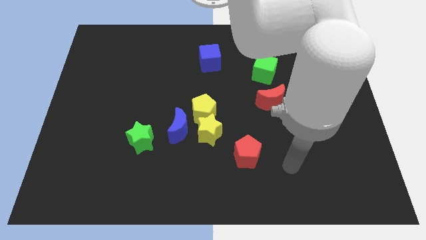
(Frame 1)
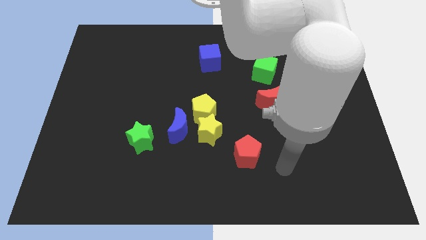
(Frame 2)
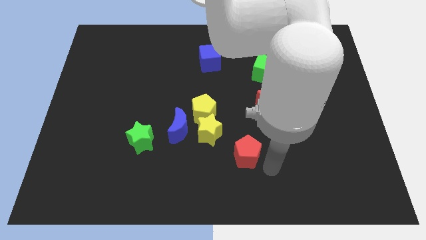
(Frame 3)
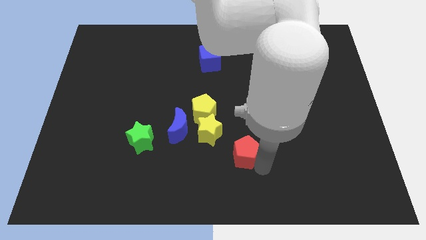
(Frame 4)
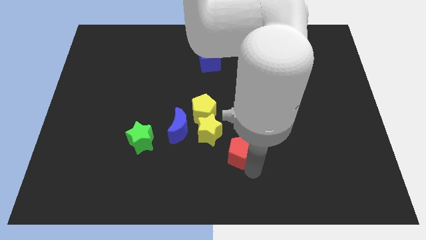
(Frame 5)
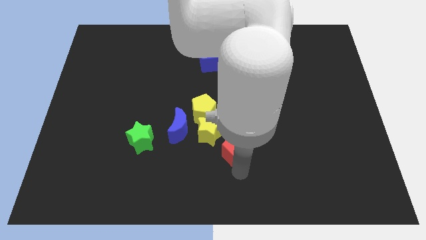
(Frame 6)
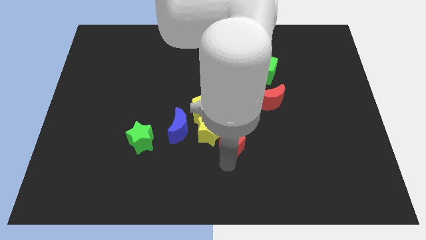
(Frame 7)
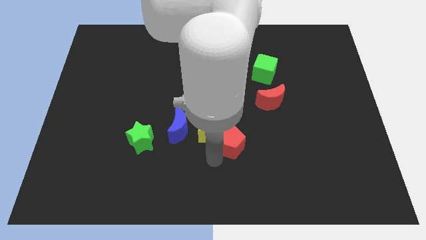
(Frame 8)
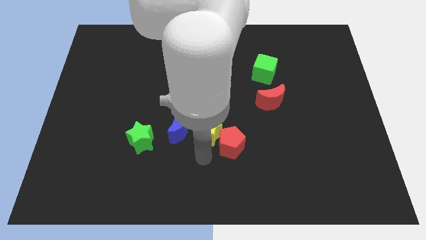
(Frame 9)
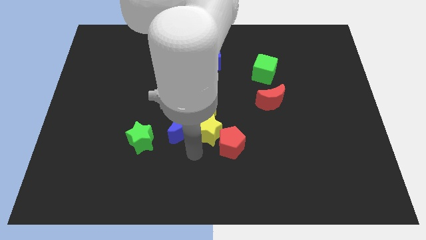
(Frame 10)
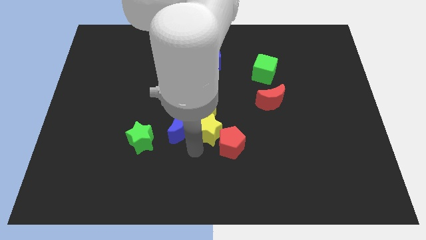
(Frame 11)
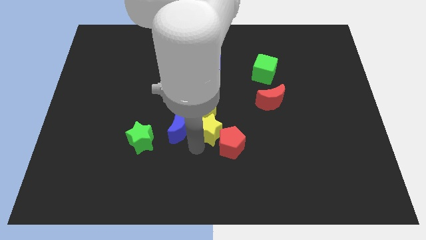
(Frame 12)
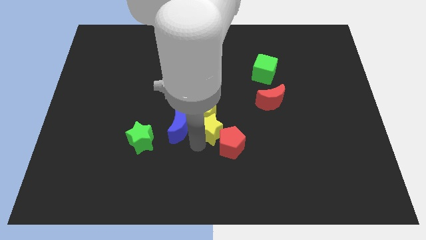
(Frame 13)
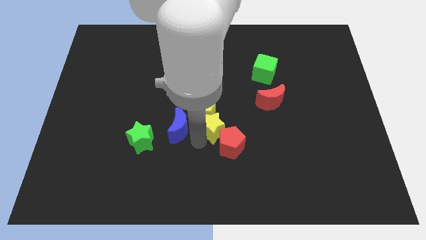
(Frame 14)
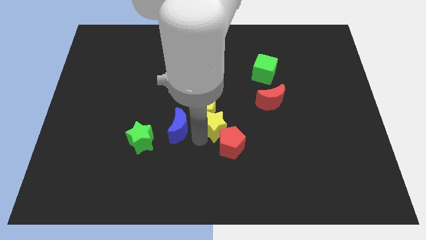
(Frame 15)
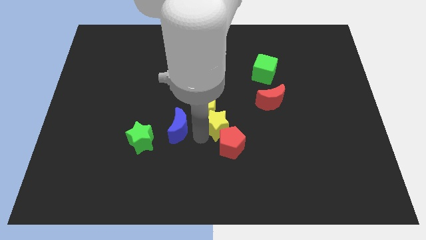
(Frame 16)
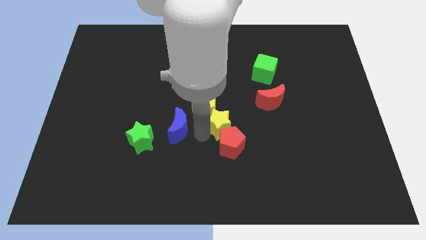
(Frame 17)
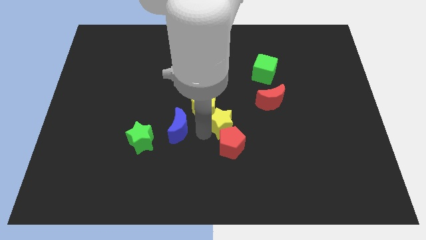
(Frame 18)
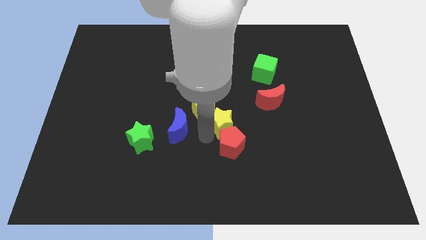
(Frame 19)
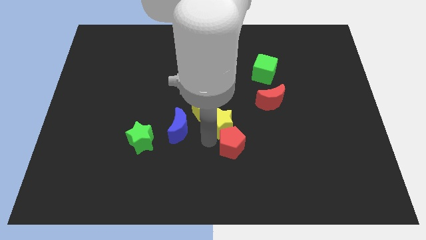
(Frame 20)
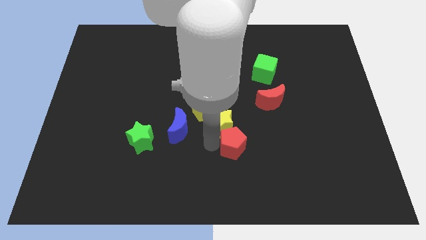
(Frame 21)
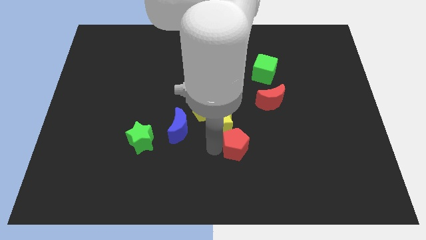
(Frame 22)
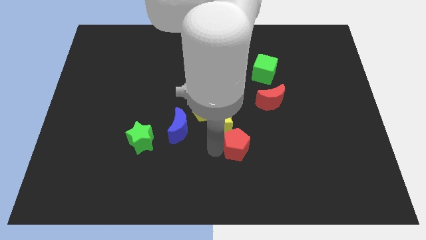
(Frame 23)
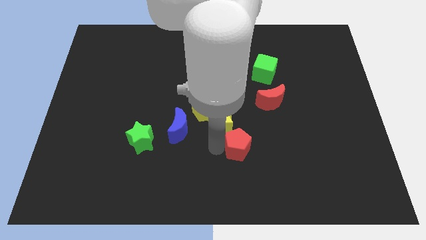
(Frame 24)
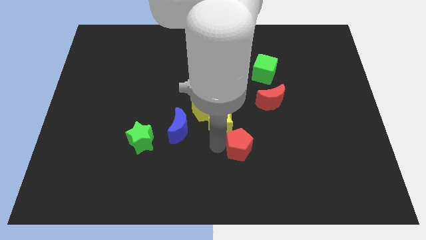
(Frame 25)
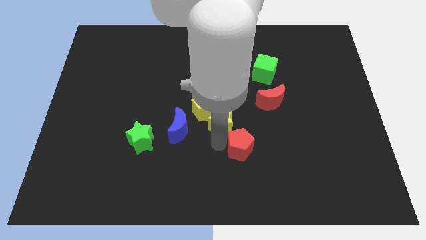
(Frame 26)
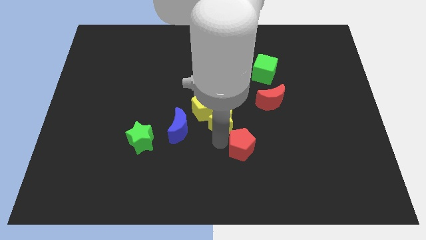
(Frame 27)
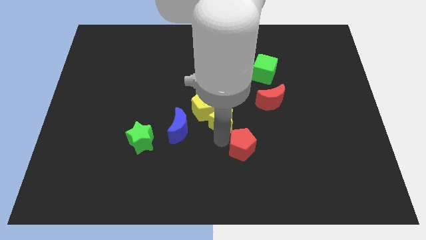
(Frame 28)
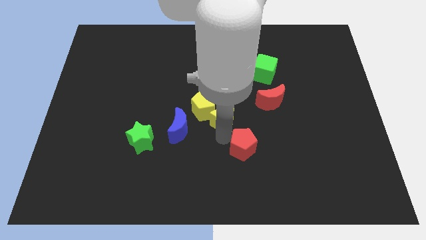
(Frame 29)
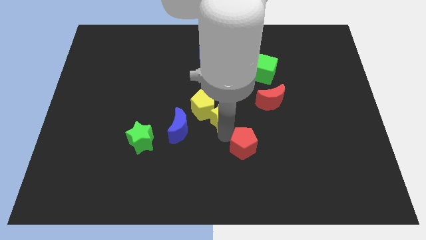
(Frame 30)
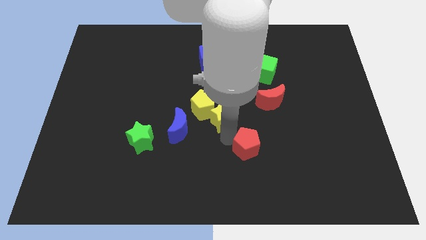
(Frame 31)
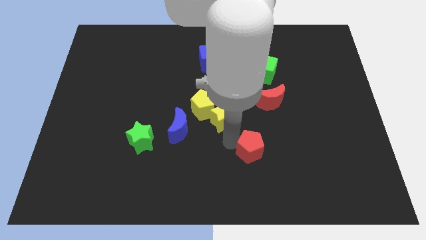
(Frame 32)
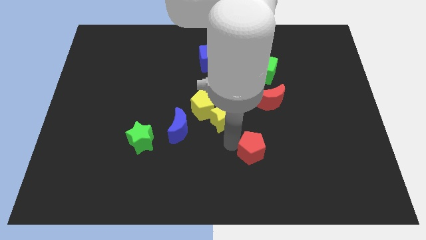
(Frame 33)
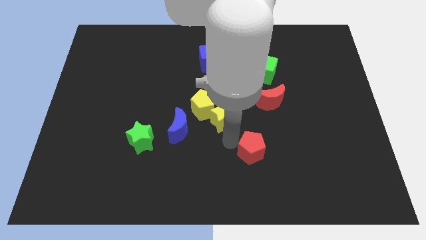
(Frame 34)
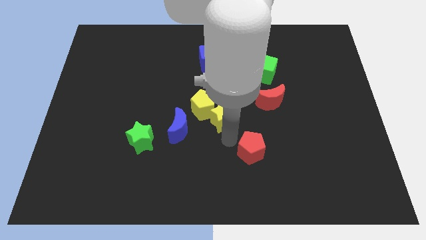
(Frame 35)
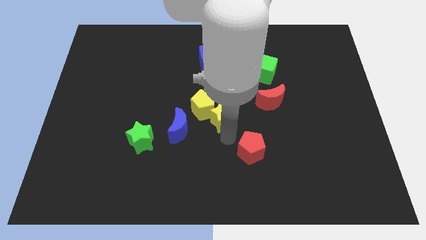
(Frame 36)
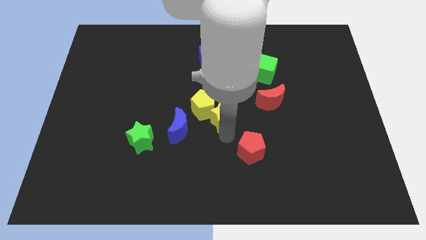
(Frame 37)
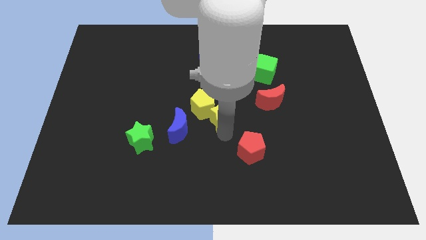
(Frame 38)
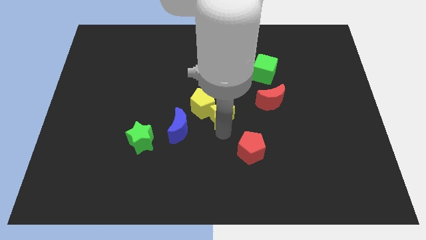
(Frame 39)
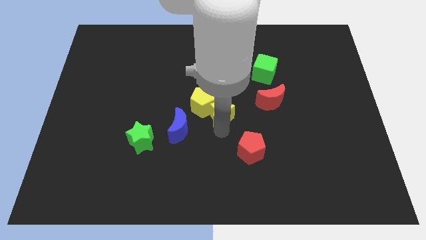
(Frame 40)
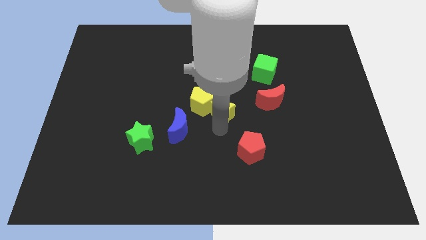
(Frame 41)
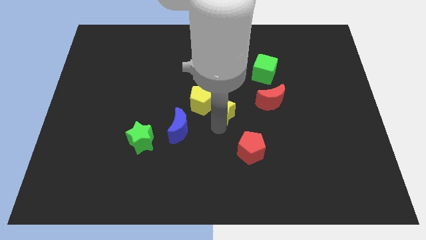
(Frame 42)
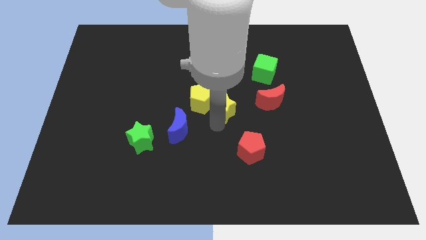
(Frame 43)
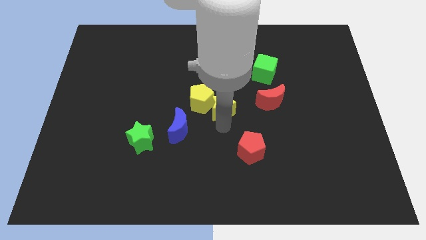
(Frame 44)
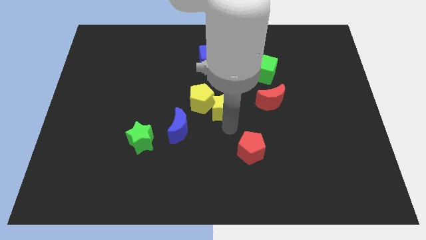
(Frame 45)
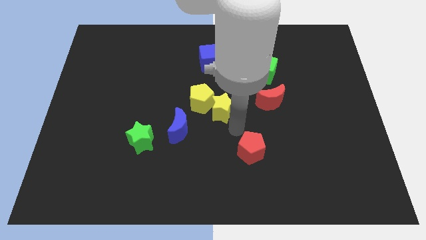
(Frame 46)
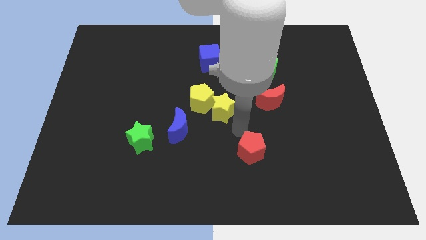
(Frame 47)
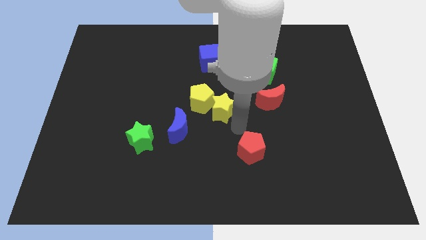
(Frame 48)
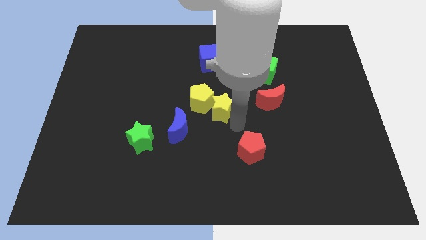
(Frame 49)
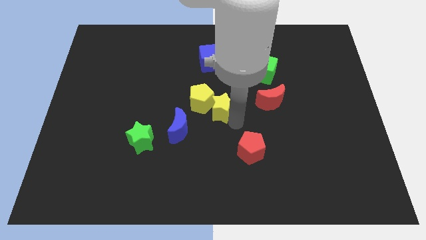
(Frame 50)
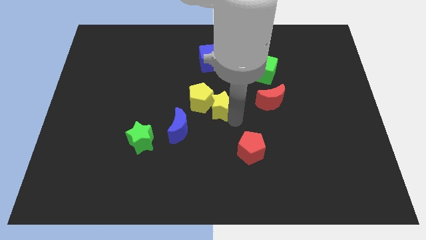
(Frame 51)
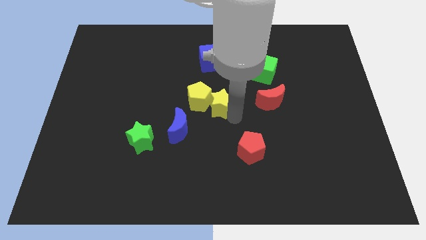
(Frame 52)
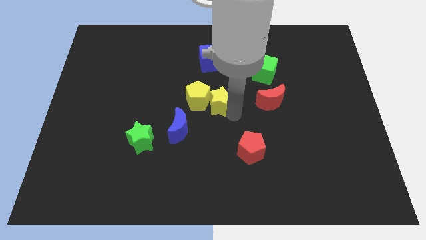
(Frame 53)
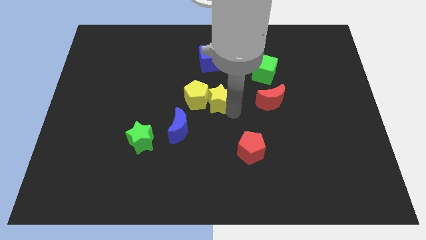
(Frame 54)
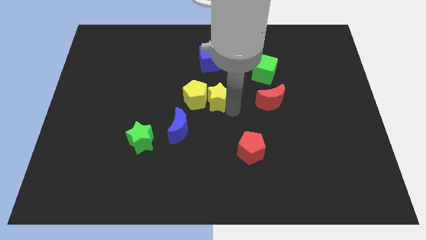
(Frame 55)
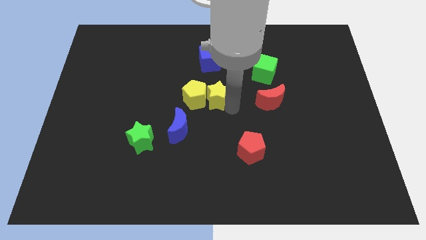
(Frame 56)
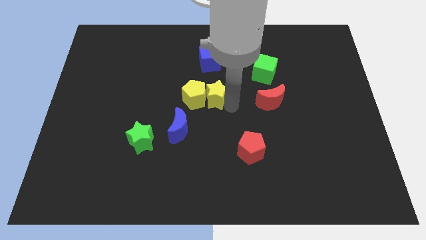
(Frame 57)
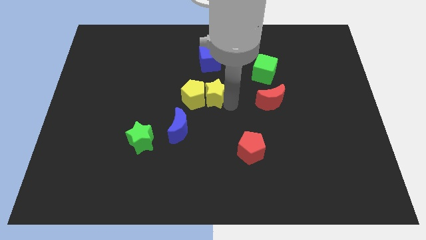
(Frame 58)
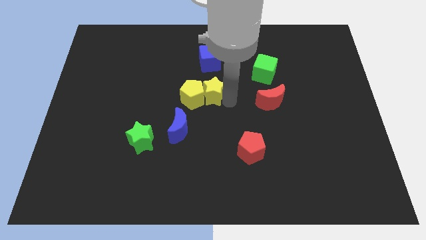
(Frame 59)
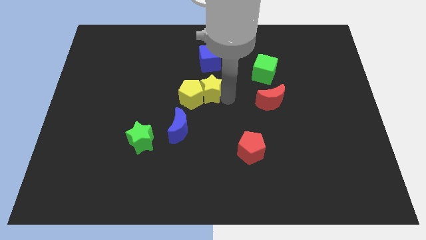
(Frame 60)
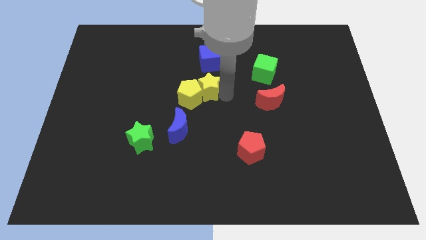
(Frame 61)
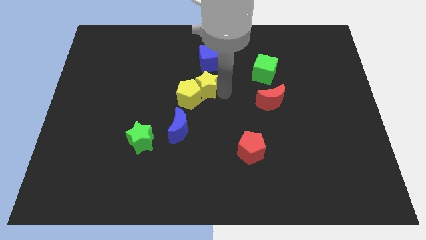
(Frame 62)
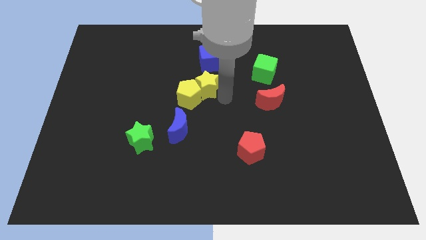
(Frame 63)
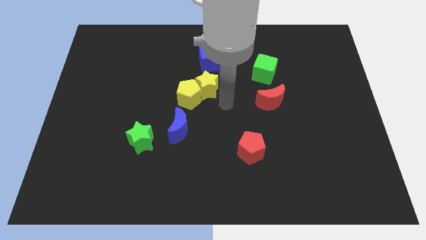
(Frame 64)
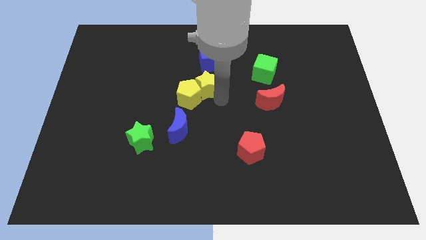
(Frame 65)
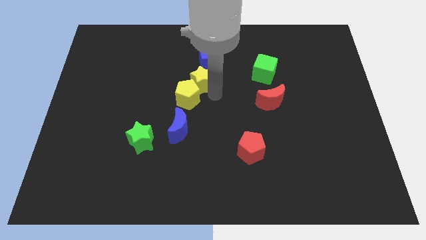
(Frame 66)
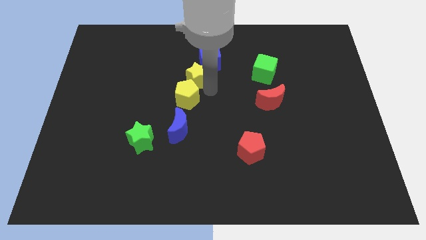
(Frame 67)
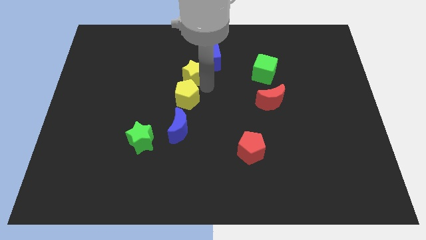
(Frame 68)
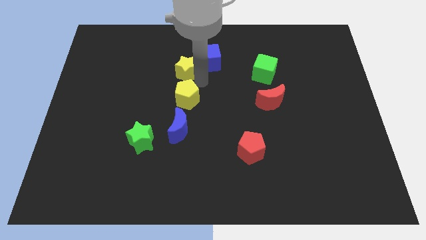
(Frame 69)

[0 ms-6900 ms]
push the yellow star to the left side of the blue cube
